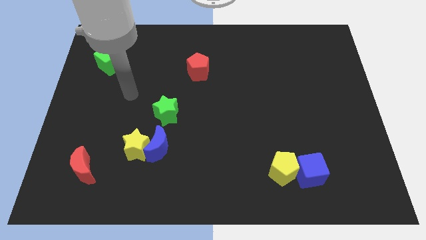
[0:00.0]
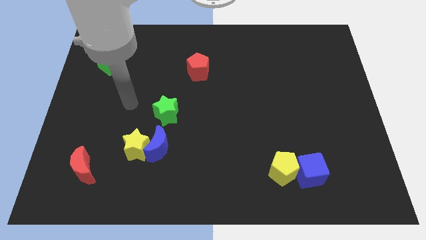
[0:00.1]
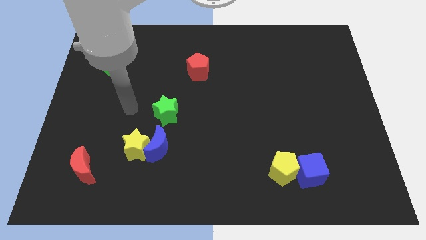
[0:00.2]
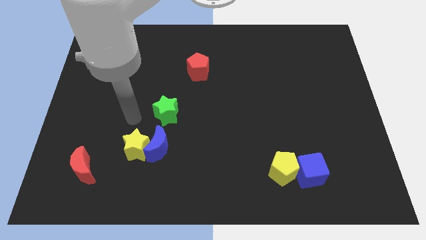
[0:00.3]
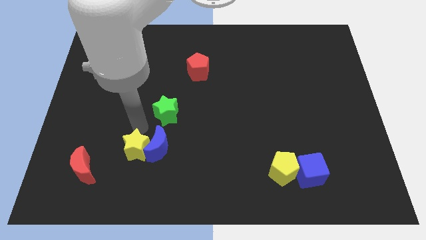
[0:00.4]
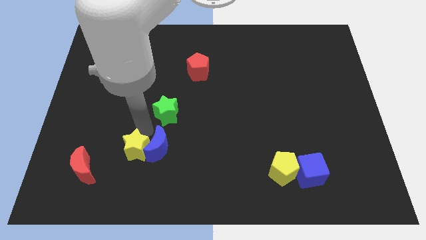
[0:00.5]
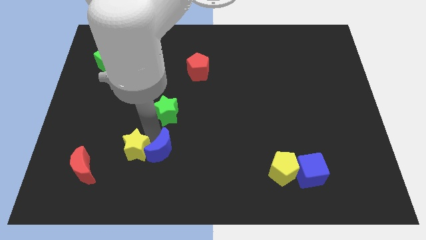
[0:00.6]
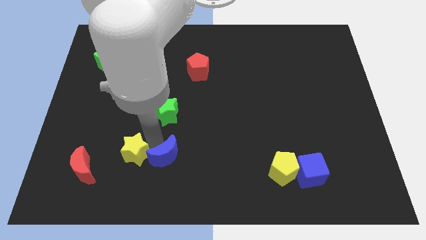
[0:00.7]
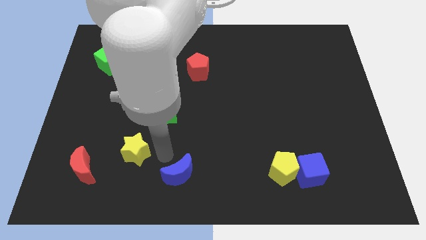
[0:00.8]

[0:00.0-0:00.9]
pull the yellow star apart from the blue moon

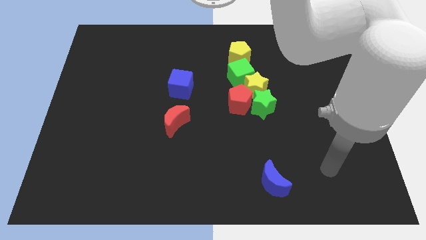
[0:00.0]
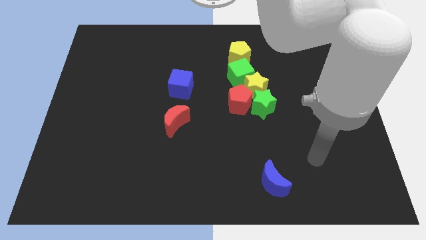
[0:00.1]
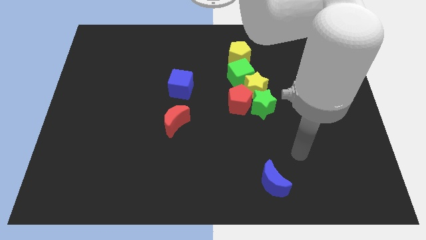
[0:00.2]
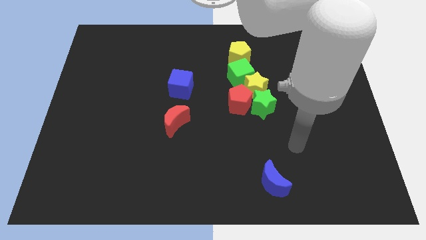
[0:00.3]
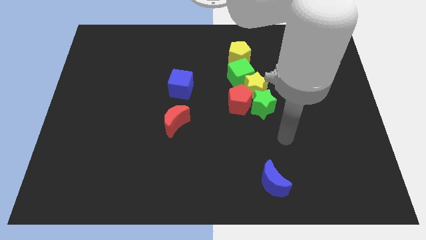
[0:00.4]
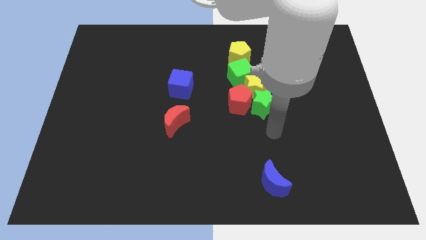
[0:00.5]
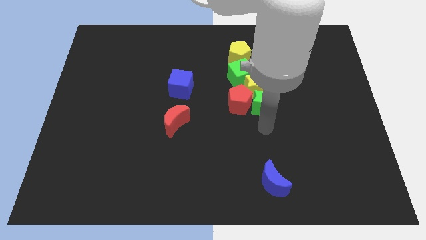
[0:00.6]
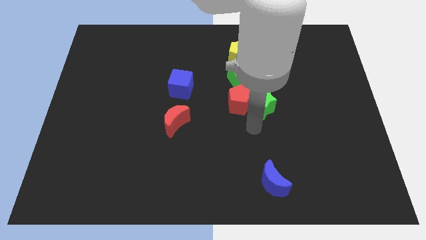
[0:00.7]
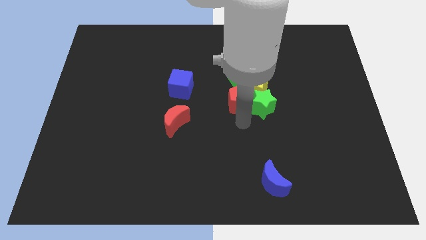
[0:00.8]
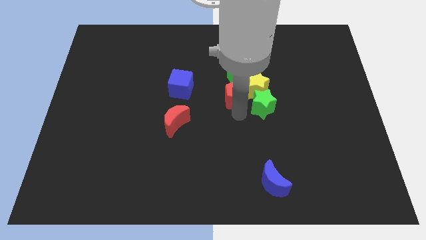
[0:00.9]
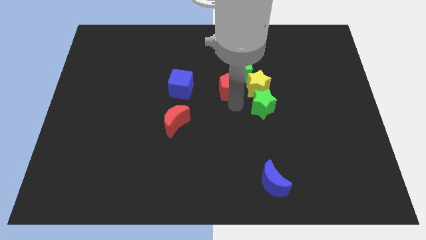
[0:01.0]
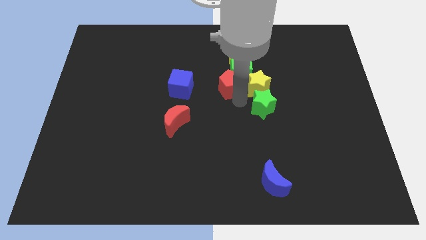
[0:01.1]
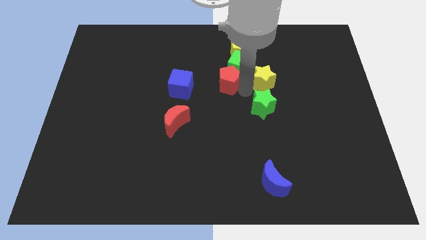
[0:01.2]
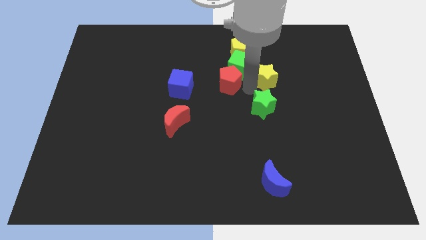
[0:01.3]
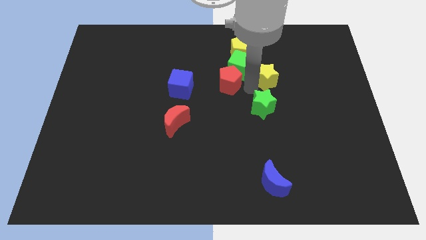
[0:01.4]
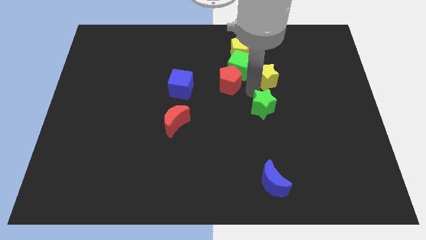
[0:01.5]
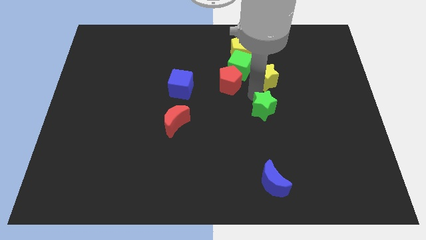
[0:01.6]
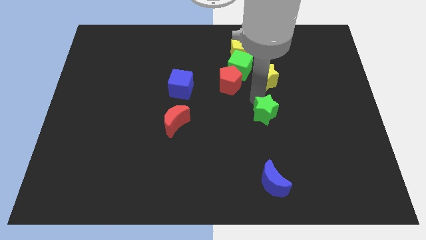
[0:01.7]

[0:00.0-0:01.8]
move the green star away from the red pentagon and yellow star

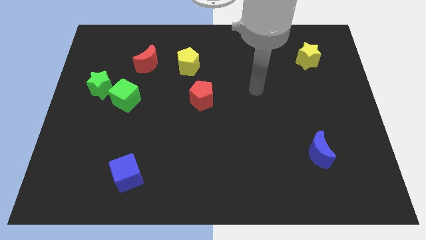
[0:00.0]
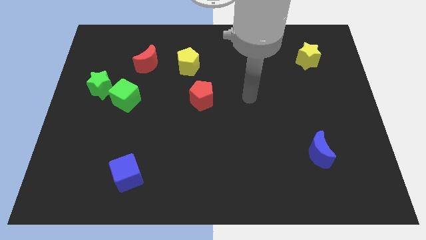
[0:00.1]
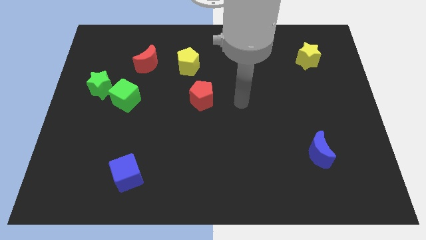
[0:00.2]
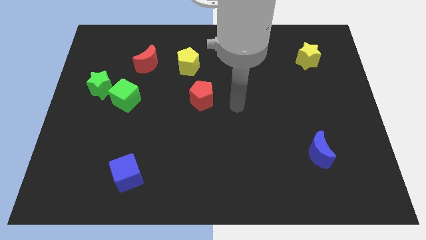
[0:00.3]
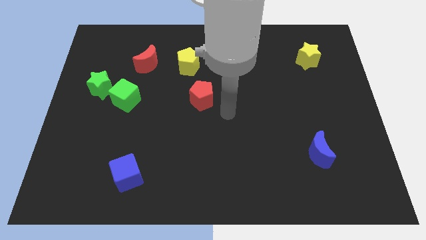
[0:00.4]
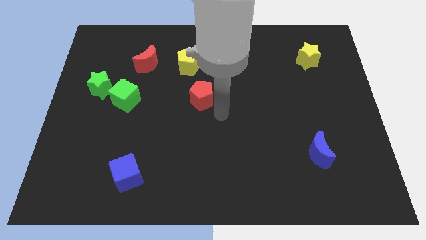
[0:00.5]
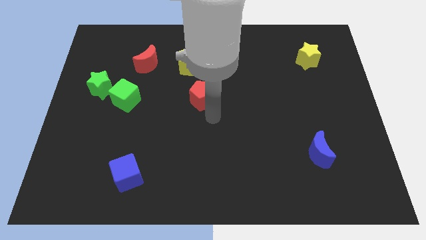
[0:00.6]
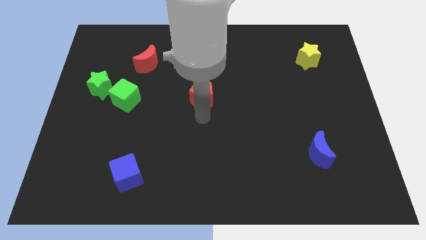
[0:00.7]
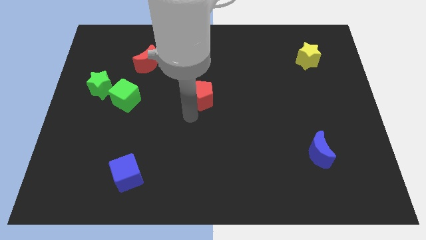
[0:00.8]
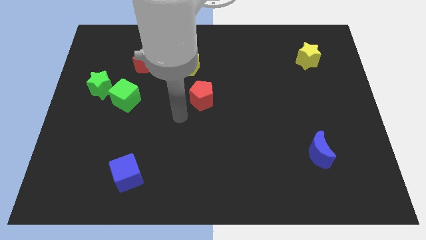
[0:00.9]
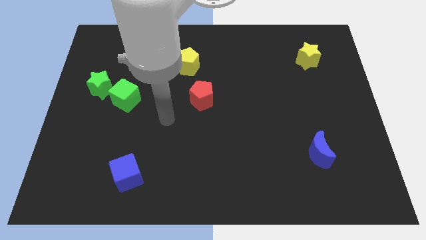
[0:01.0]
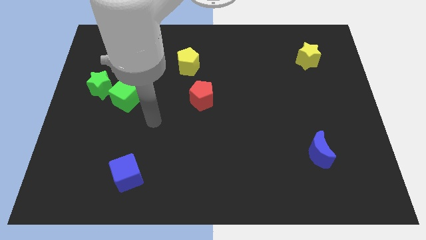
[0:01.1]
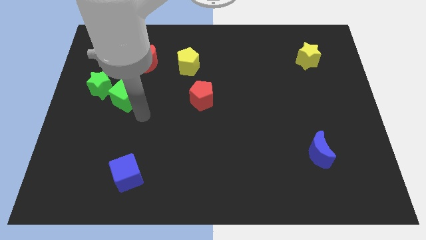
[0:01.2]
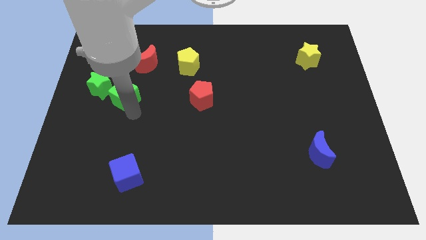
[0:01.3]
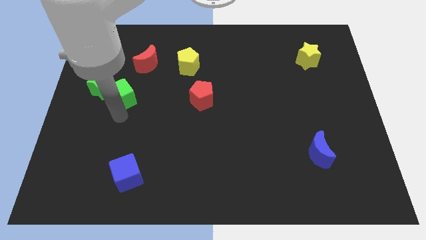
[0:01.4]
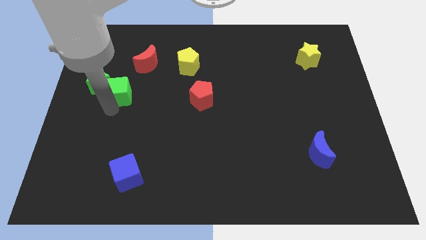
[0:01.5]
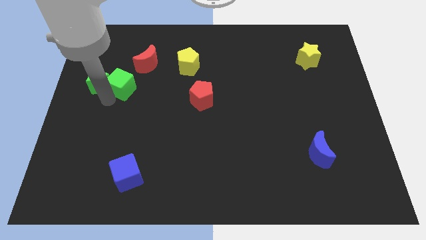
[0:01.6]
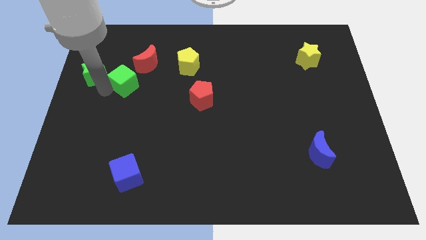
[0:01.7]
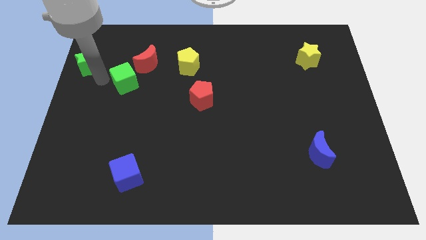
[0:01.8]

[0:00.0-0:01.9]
separate the green cube from the green star

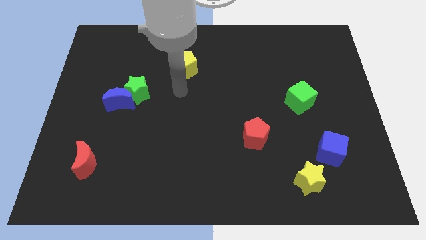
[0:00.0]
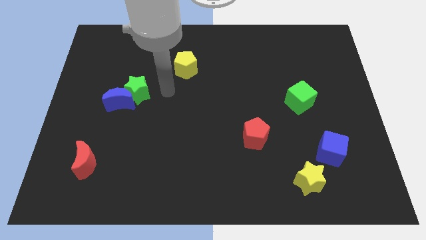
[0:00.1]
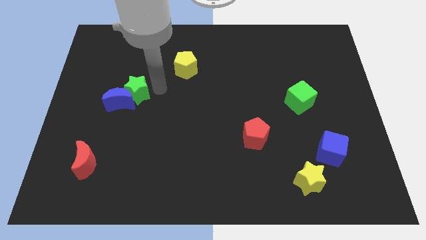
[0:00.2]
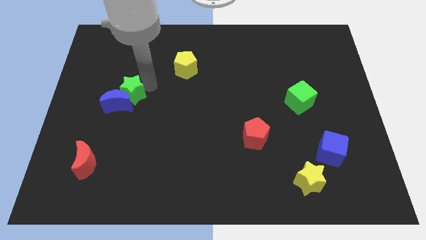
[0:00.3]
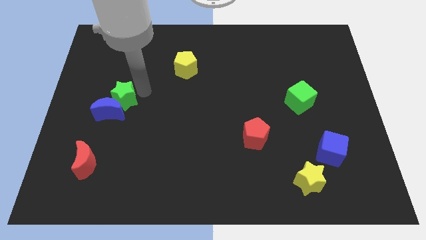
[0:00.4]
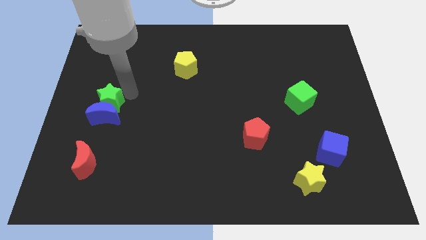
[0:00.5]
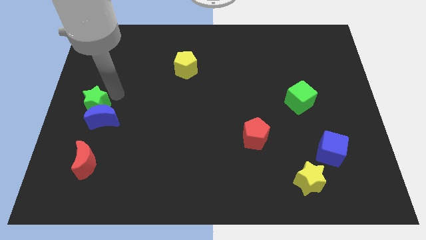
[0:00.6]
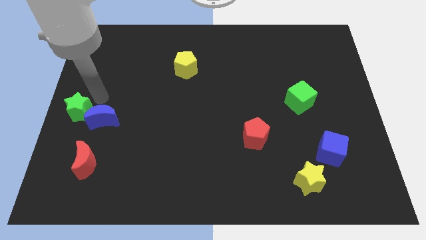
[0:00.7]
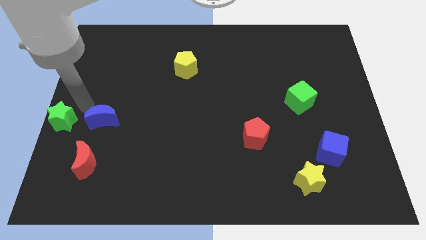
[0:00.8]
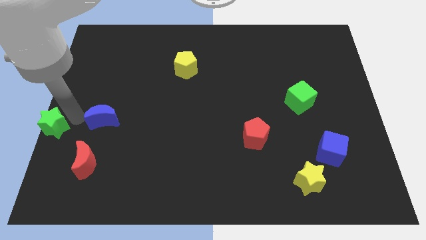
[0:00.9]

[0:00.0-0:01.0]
pull the blue moon apart from the green star

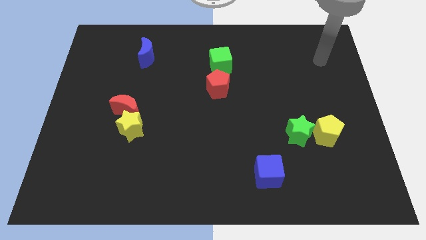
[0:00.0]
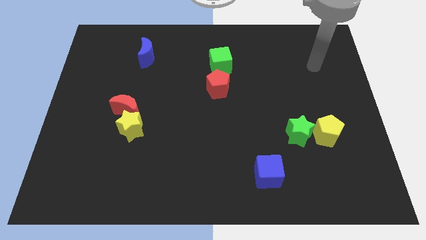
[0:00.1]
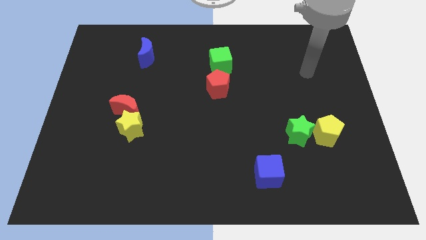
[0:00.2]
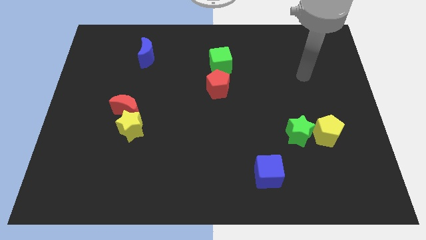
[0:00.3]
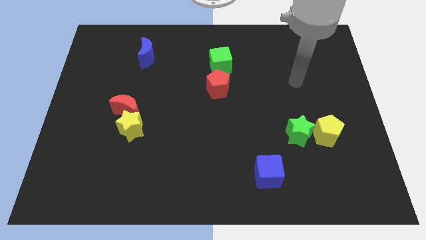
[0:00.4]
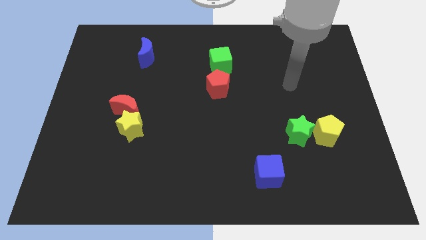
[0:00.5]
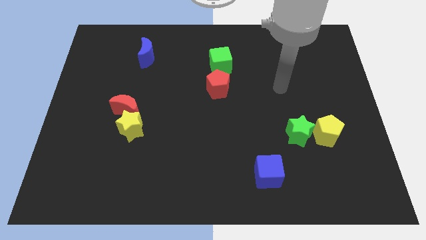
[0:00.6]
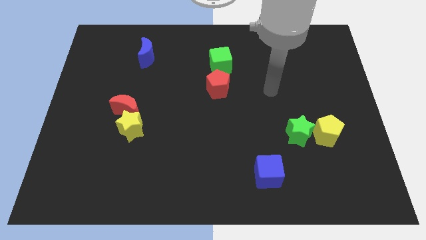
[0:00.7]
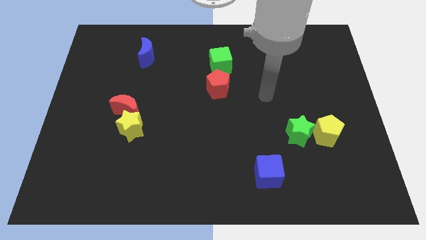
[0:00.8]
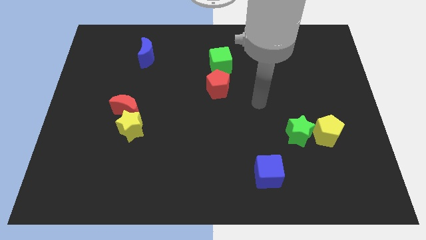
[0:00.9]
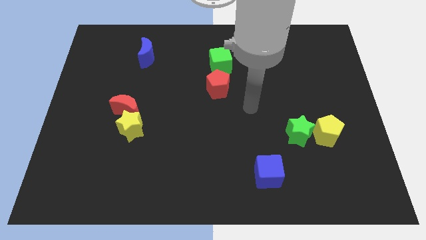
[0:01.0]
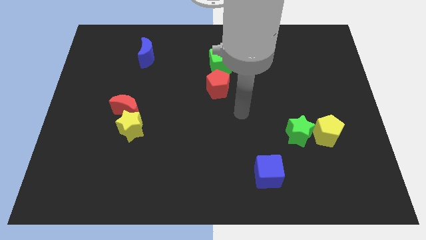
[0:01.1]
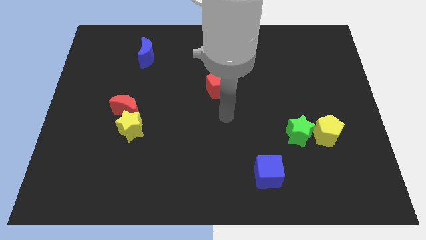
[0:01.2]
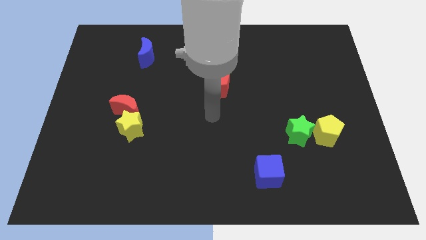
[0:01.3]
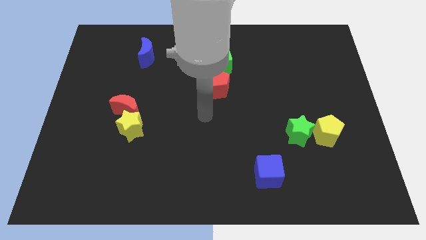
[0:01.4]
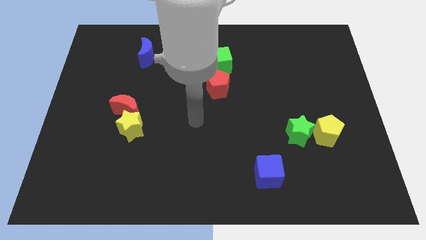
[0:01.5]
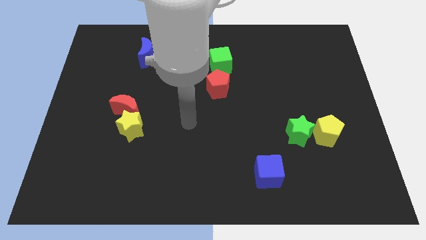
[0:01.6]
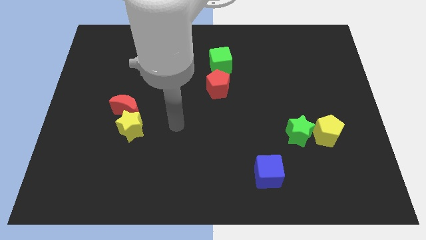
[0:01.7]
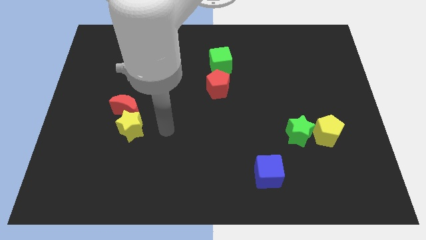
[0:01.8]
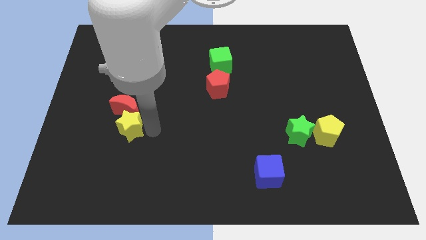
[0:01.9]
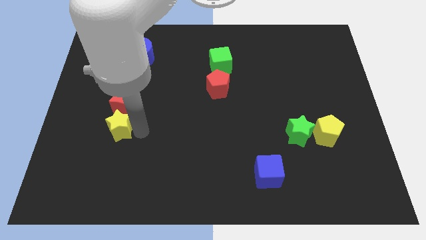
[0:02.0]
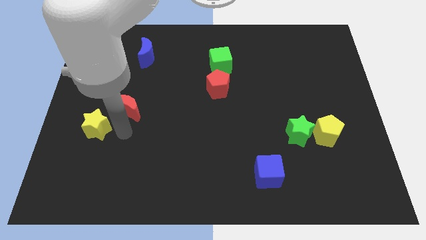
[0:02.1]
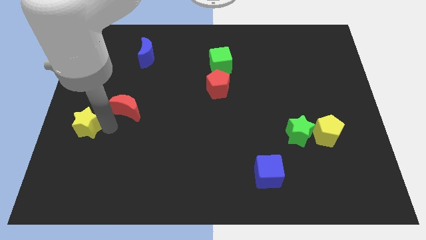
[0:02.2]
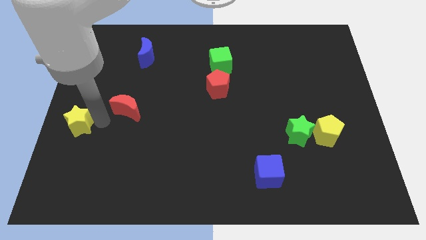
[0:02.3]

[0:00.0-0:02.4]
pull the red moon apart from the yellow star

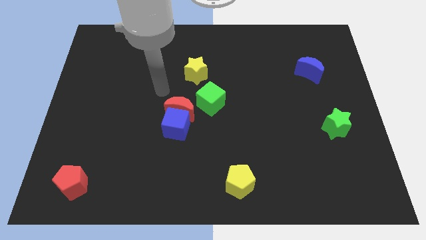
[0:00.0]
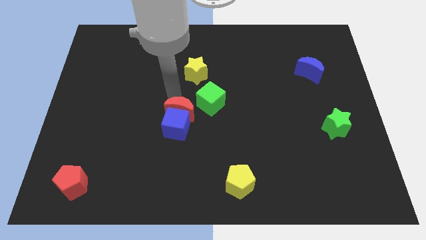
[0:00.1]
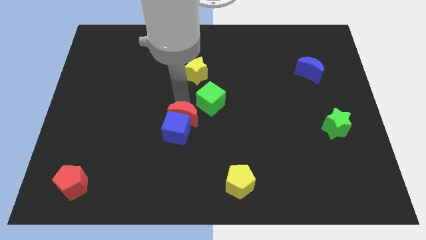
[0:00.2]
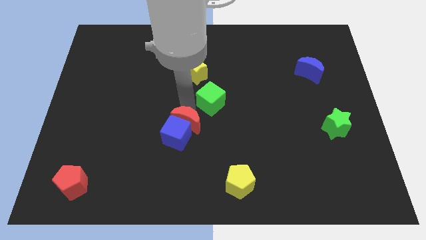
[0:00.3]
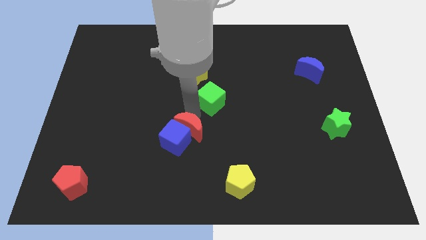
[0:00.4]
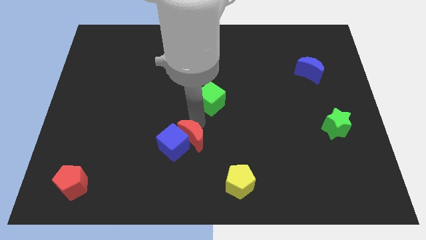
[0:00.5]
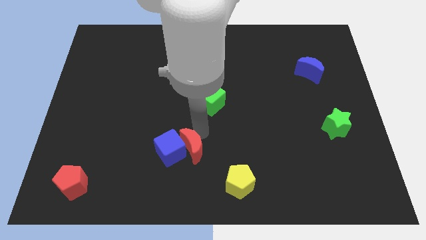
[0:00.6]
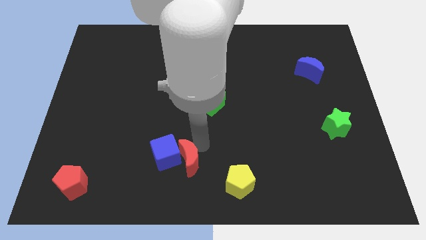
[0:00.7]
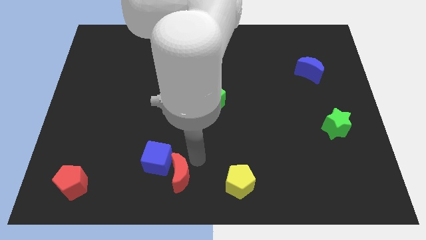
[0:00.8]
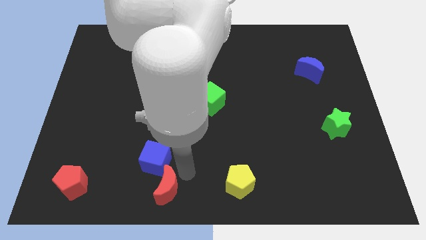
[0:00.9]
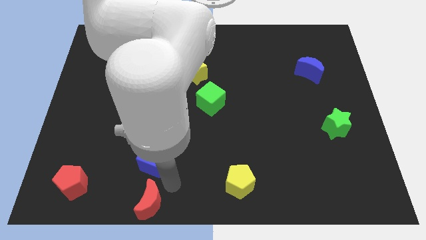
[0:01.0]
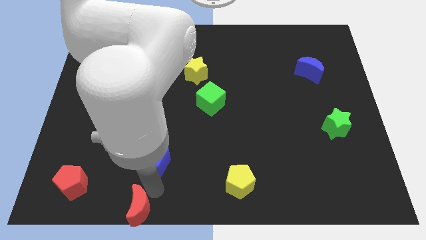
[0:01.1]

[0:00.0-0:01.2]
separate the blue cube from the red moon

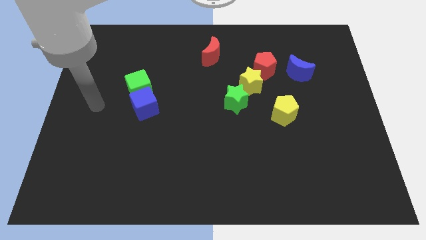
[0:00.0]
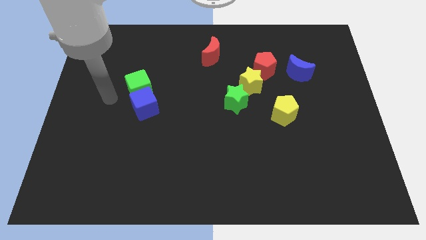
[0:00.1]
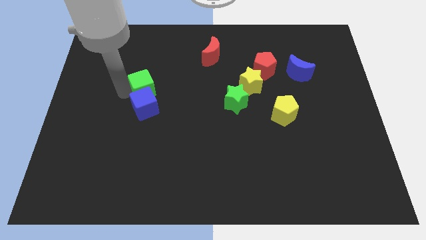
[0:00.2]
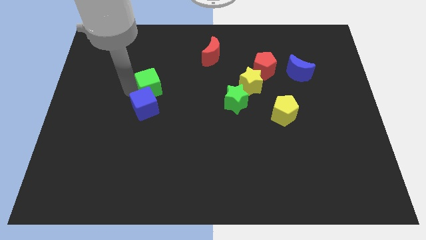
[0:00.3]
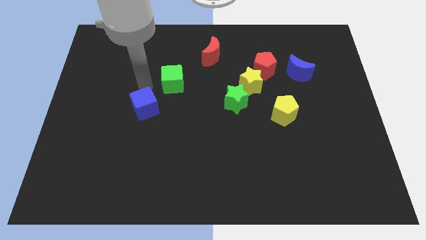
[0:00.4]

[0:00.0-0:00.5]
move the blue cube away from the green cube
